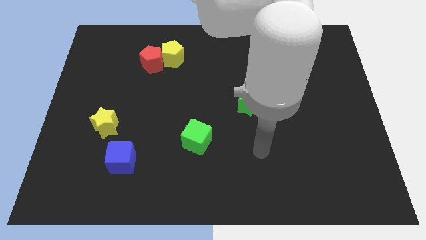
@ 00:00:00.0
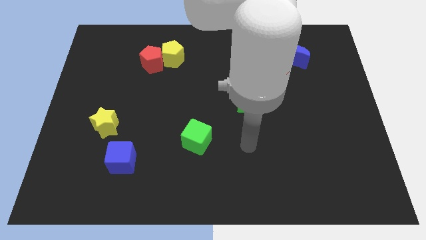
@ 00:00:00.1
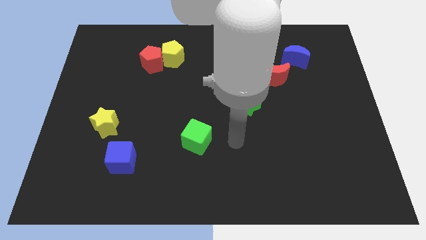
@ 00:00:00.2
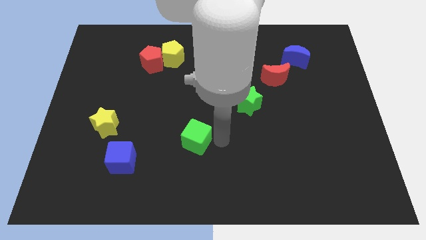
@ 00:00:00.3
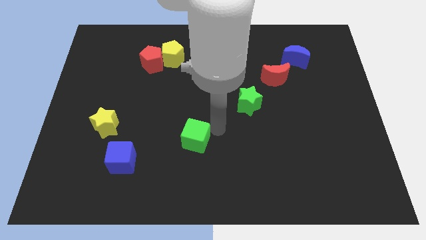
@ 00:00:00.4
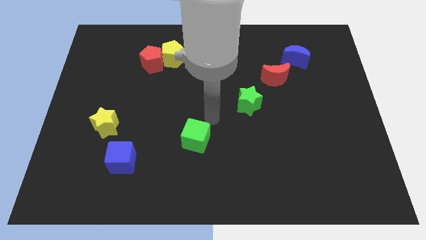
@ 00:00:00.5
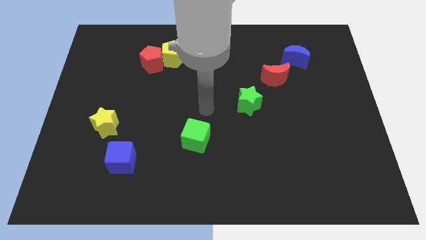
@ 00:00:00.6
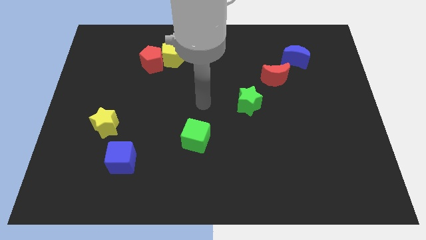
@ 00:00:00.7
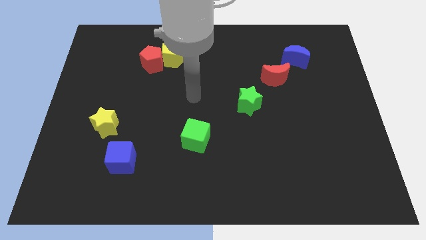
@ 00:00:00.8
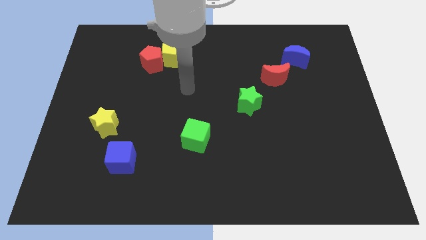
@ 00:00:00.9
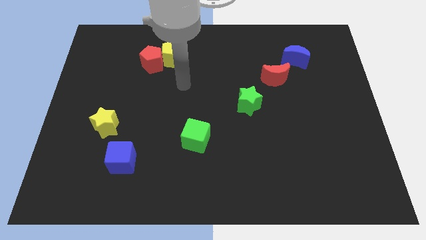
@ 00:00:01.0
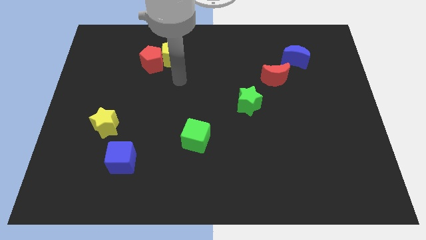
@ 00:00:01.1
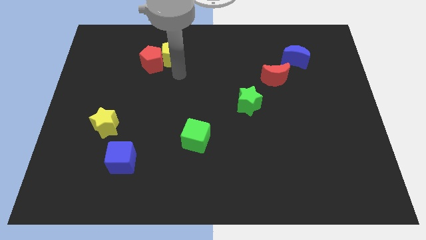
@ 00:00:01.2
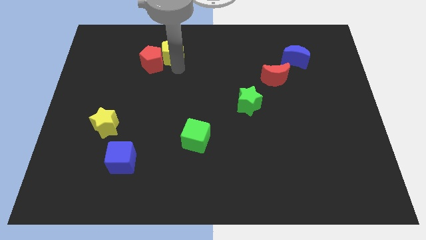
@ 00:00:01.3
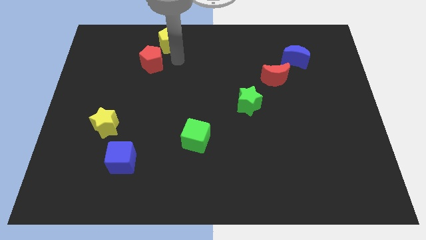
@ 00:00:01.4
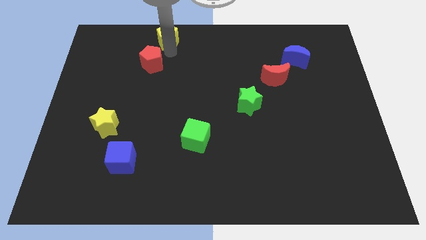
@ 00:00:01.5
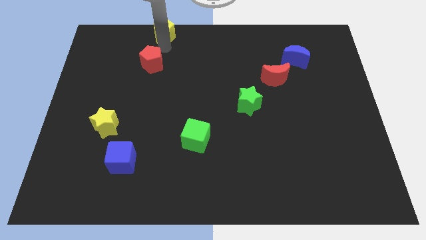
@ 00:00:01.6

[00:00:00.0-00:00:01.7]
move the red pentagon away from the yellow pentagon

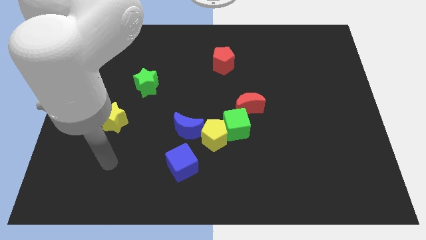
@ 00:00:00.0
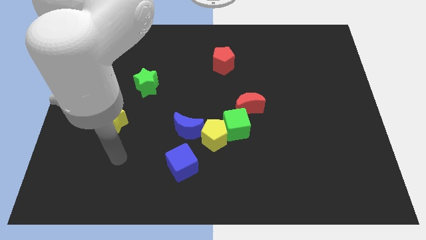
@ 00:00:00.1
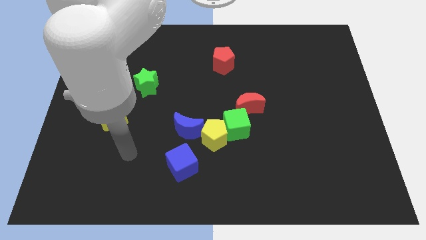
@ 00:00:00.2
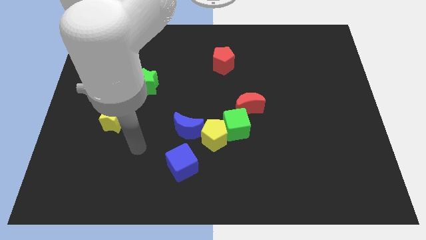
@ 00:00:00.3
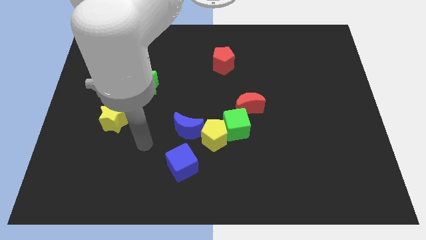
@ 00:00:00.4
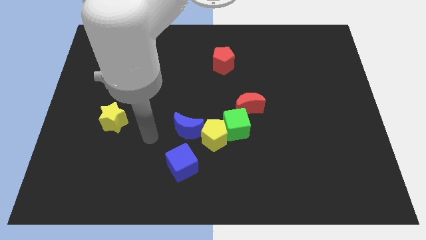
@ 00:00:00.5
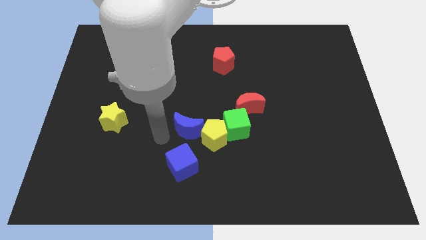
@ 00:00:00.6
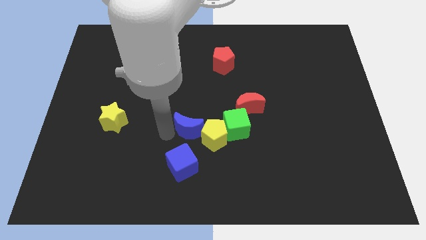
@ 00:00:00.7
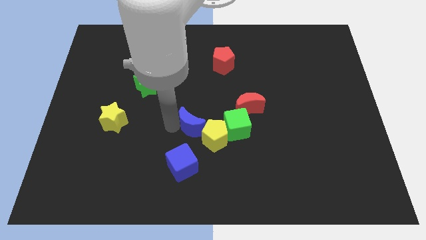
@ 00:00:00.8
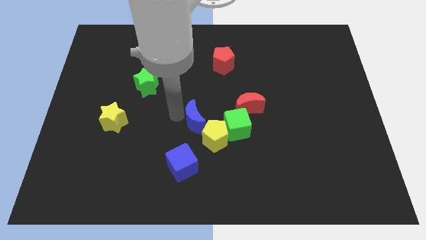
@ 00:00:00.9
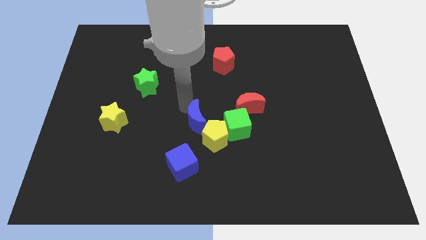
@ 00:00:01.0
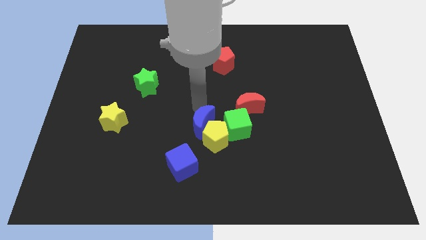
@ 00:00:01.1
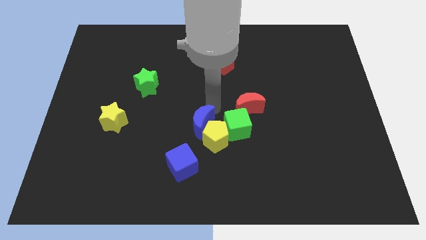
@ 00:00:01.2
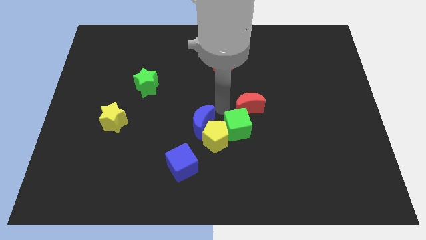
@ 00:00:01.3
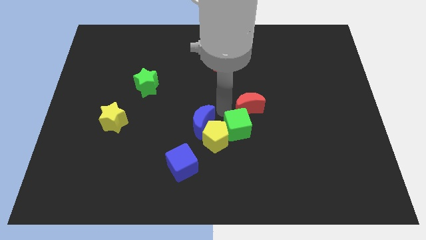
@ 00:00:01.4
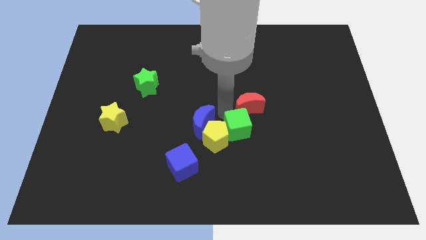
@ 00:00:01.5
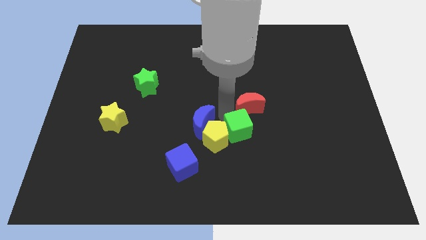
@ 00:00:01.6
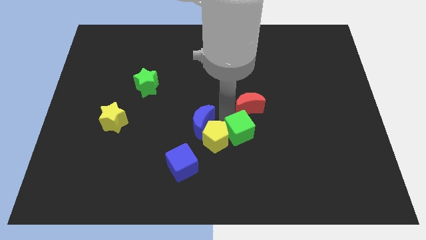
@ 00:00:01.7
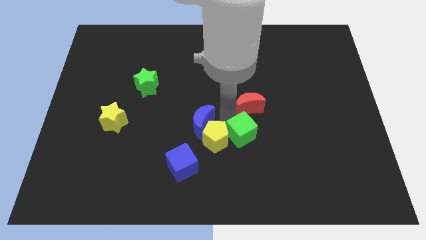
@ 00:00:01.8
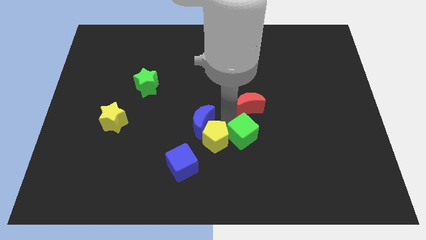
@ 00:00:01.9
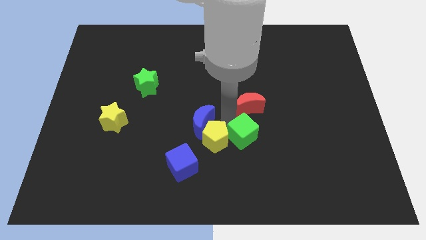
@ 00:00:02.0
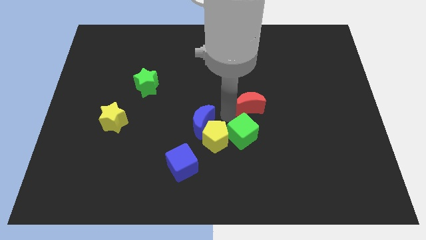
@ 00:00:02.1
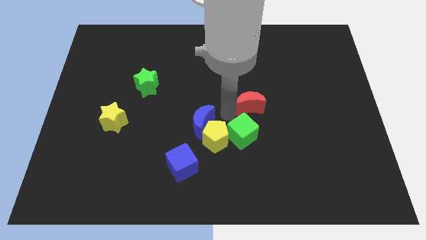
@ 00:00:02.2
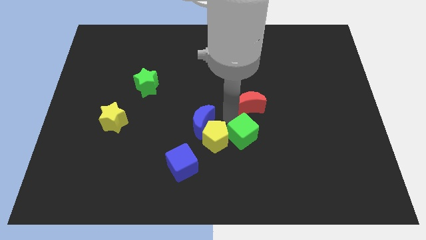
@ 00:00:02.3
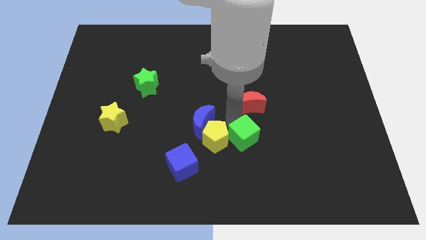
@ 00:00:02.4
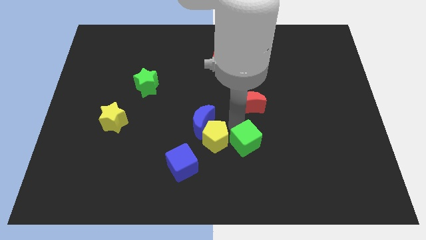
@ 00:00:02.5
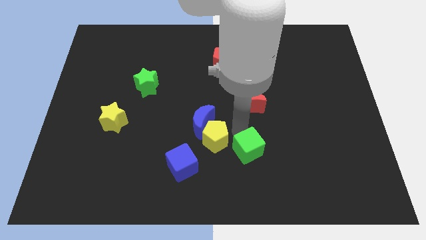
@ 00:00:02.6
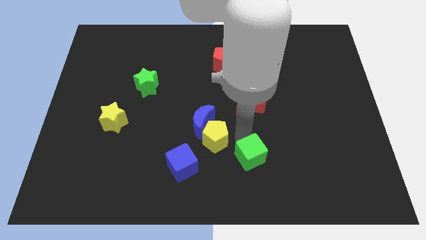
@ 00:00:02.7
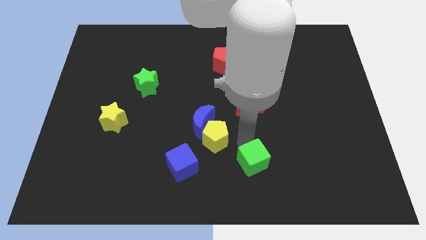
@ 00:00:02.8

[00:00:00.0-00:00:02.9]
pull the green cube apart from the yellow pentagon and red moon

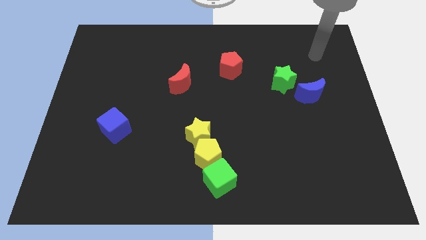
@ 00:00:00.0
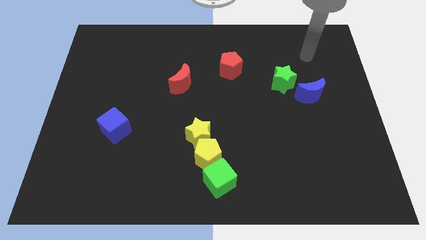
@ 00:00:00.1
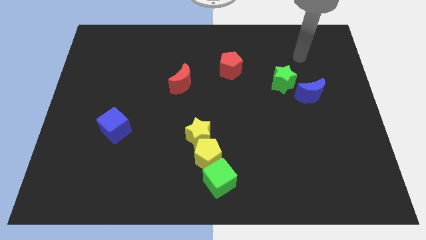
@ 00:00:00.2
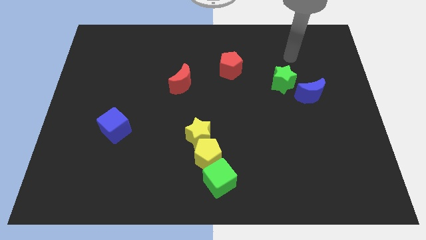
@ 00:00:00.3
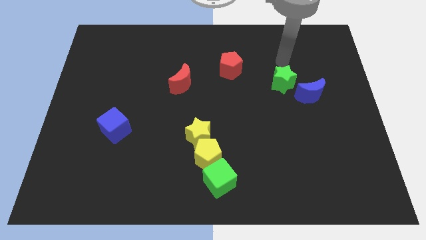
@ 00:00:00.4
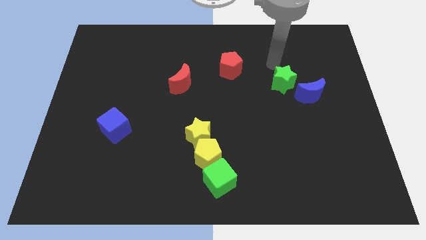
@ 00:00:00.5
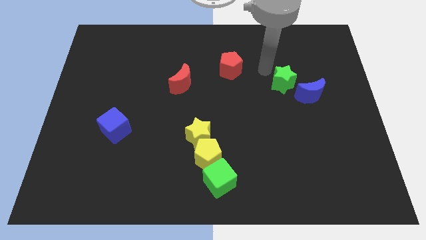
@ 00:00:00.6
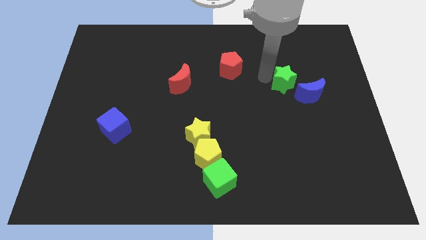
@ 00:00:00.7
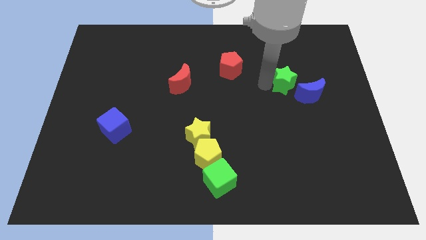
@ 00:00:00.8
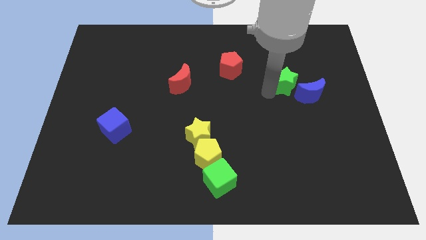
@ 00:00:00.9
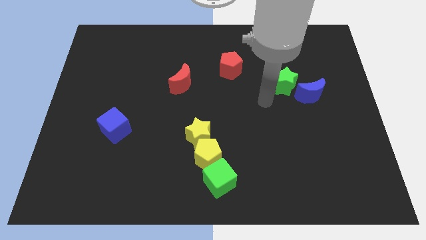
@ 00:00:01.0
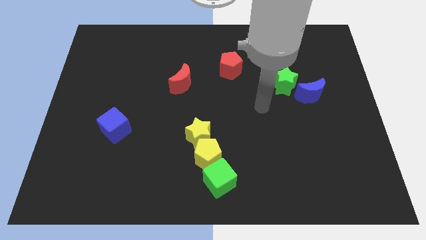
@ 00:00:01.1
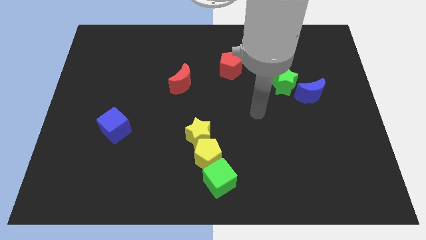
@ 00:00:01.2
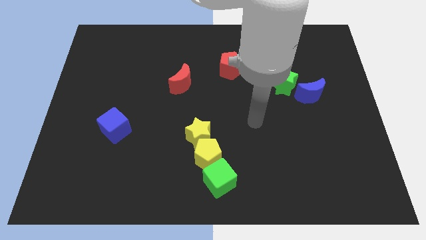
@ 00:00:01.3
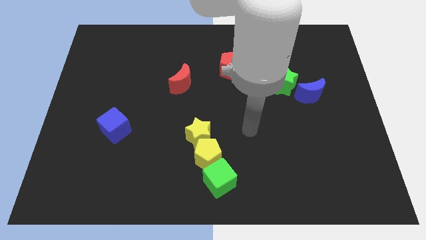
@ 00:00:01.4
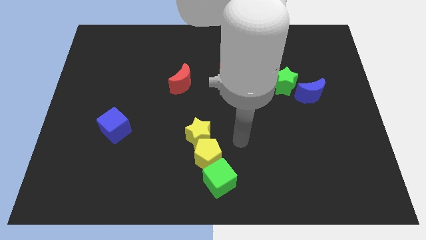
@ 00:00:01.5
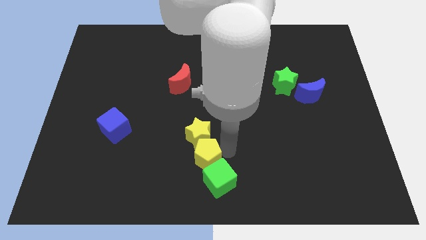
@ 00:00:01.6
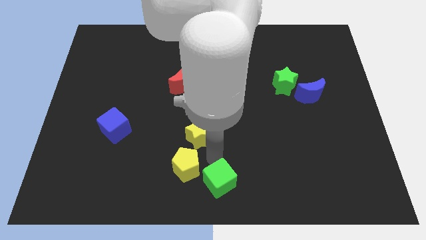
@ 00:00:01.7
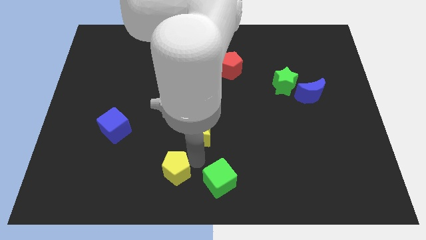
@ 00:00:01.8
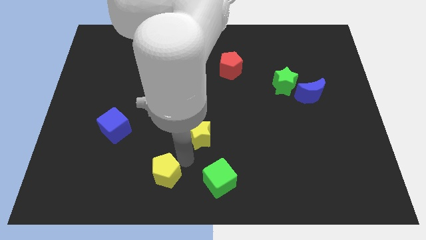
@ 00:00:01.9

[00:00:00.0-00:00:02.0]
pull the yellow star apart from the yellow pentagon

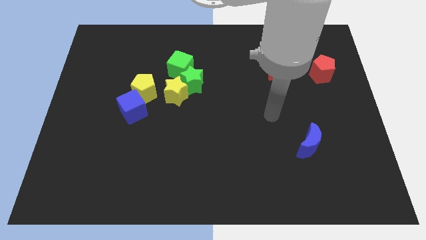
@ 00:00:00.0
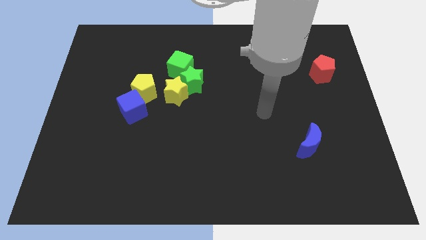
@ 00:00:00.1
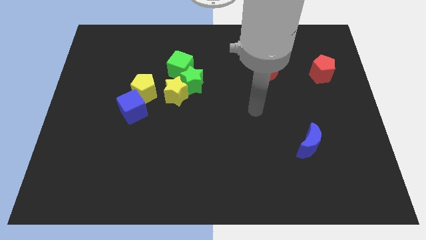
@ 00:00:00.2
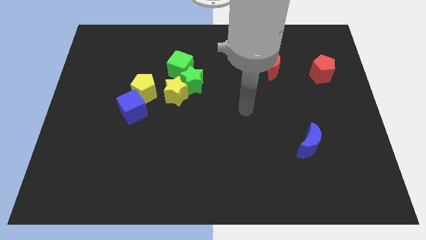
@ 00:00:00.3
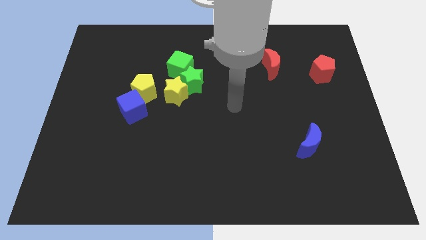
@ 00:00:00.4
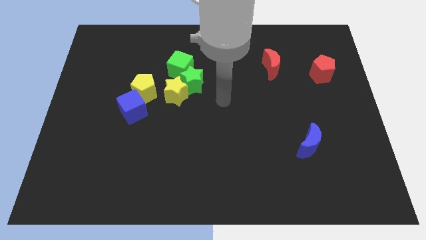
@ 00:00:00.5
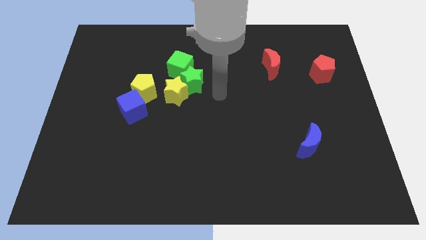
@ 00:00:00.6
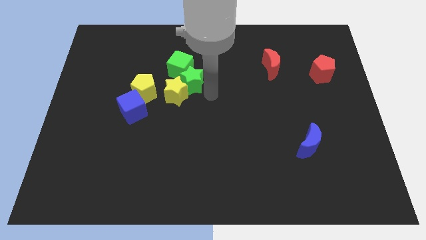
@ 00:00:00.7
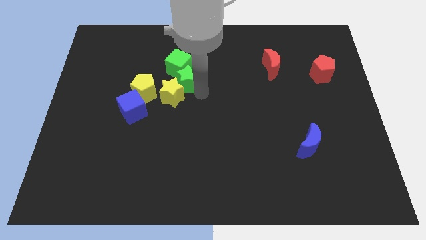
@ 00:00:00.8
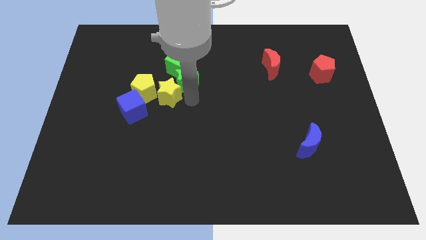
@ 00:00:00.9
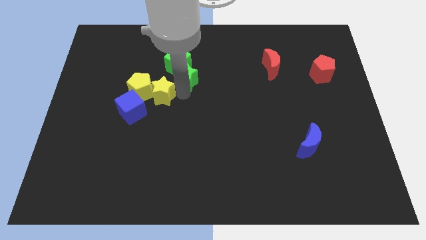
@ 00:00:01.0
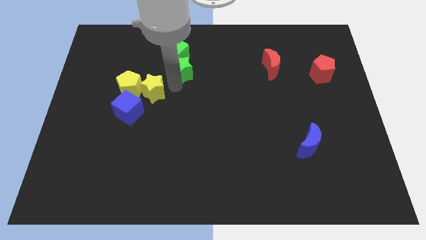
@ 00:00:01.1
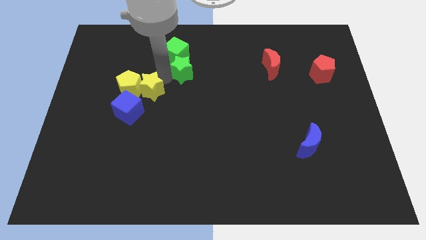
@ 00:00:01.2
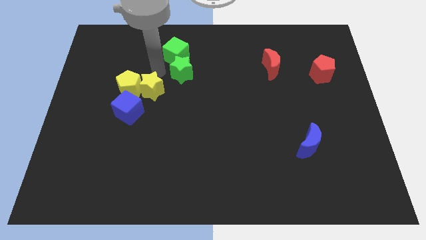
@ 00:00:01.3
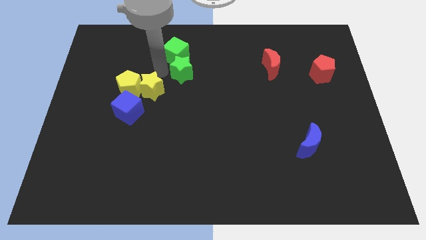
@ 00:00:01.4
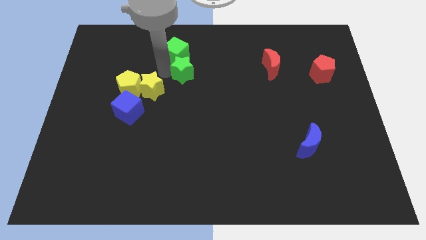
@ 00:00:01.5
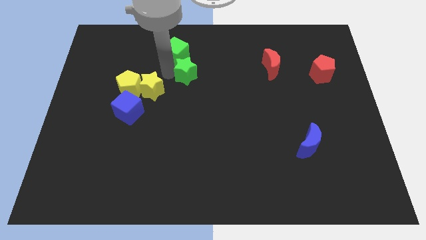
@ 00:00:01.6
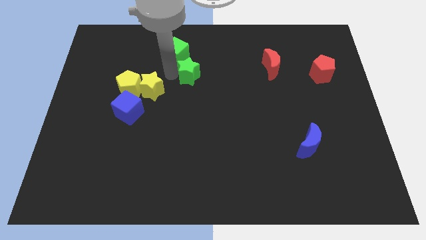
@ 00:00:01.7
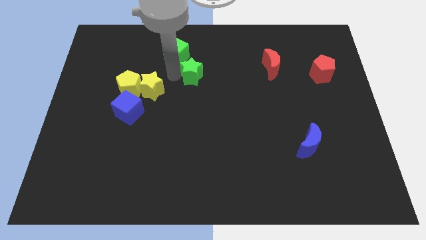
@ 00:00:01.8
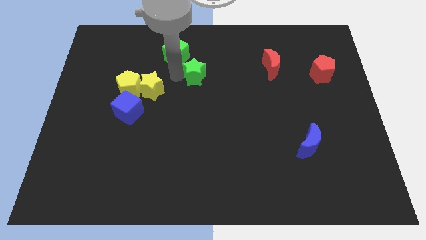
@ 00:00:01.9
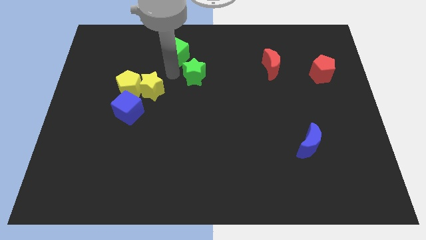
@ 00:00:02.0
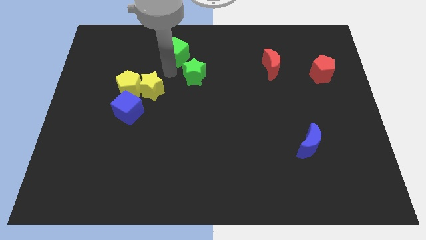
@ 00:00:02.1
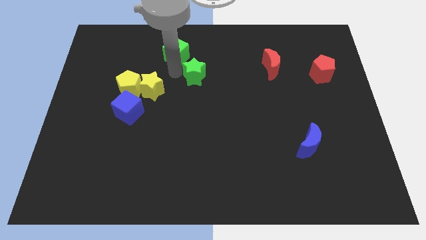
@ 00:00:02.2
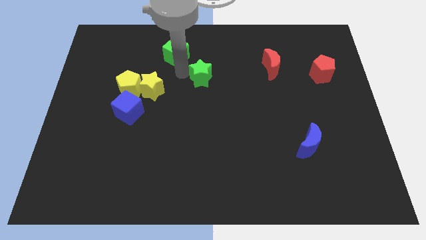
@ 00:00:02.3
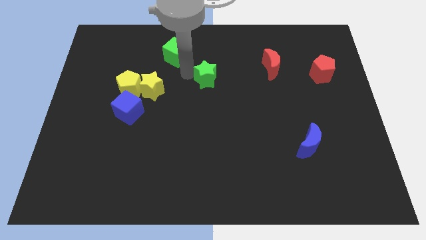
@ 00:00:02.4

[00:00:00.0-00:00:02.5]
pull the green star apart from the yellow star and green cube

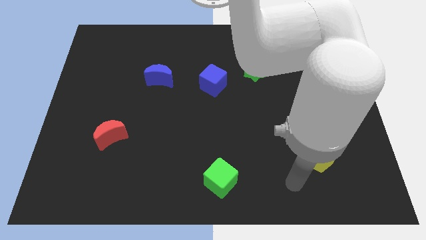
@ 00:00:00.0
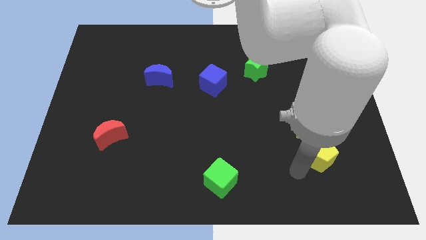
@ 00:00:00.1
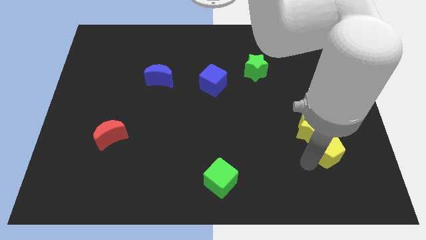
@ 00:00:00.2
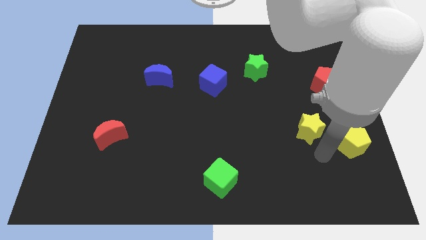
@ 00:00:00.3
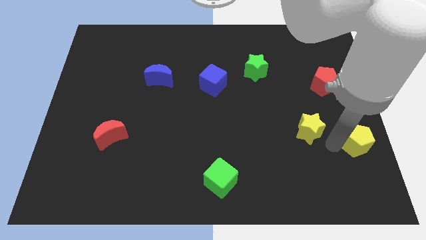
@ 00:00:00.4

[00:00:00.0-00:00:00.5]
separate the yellow star from the yellow pentagon
